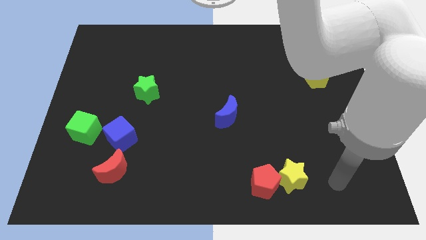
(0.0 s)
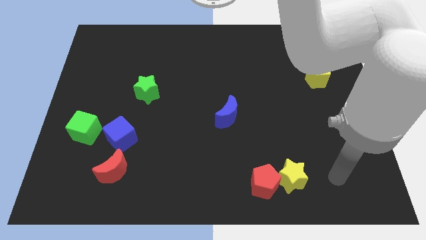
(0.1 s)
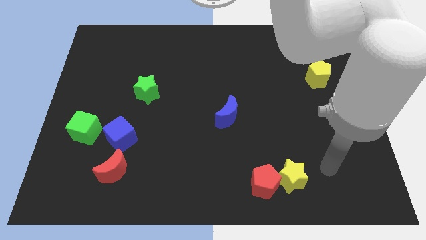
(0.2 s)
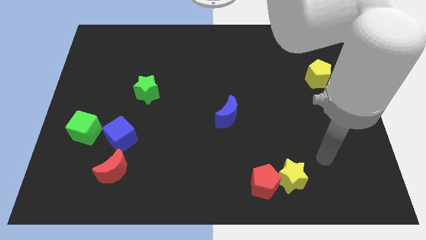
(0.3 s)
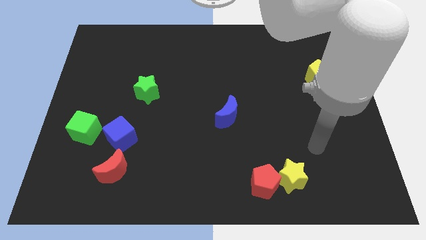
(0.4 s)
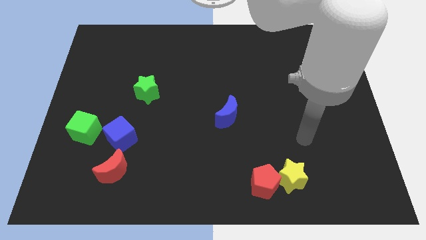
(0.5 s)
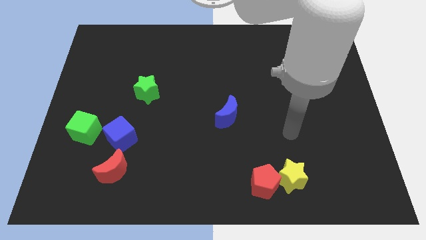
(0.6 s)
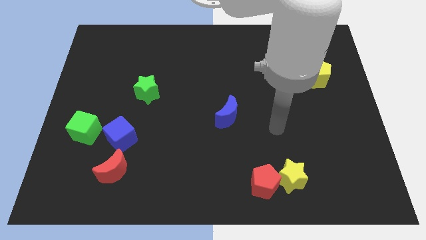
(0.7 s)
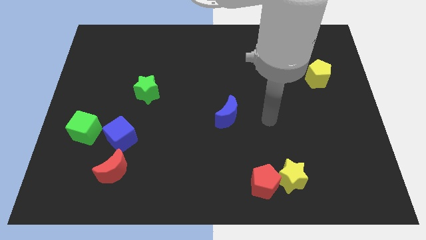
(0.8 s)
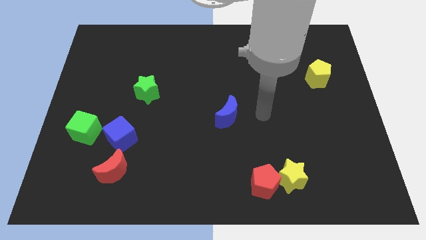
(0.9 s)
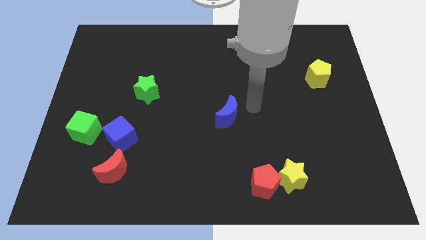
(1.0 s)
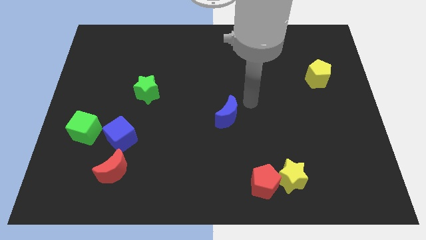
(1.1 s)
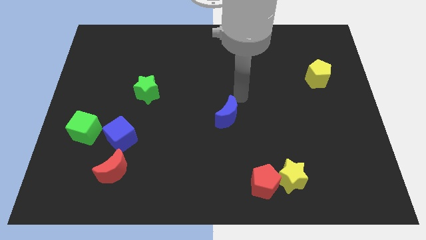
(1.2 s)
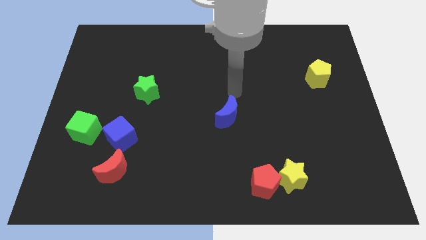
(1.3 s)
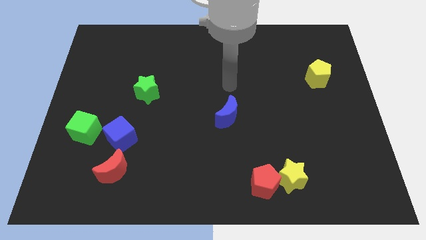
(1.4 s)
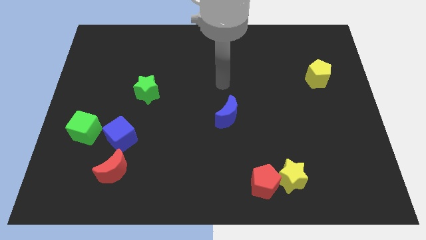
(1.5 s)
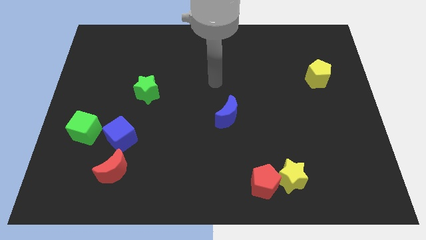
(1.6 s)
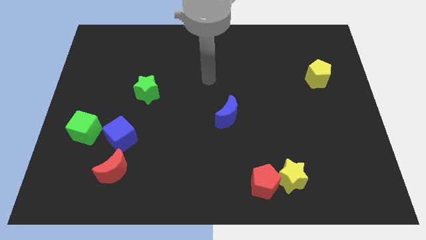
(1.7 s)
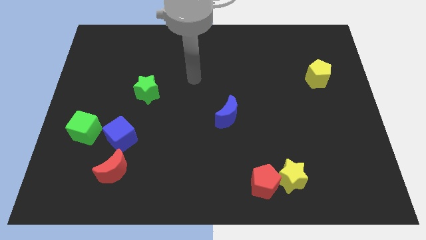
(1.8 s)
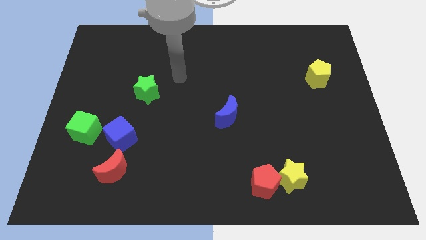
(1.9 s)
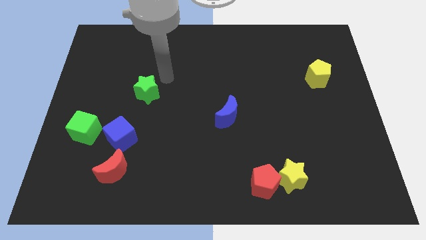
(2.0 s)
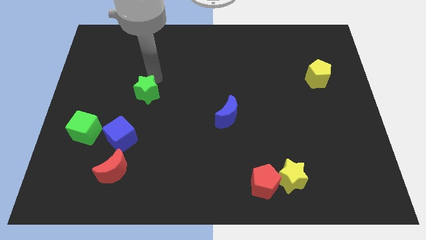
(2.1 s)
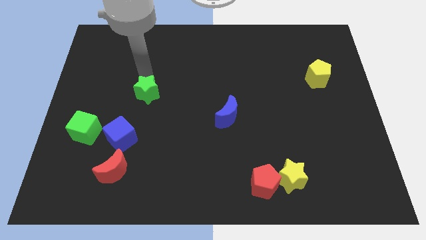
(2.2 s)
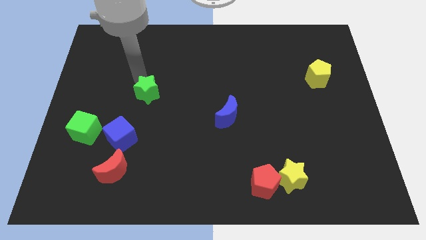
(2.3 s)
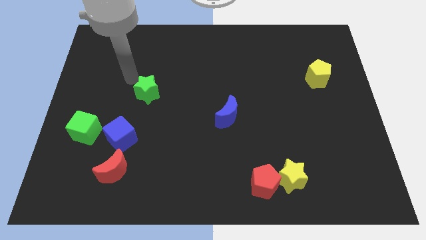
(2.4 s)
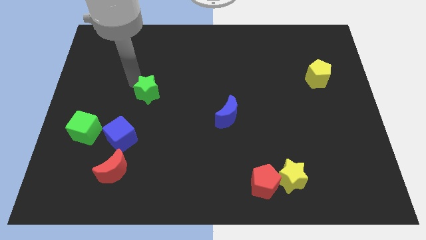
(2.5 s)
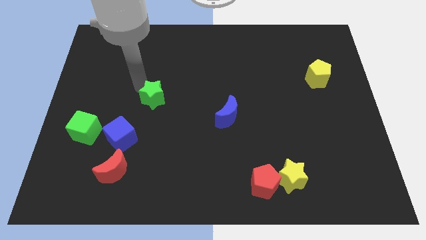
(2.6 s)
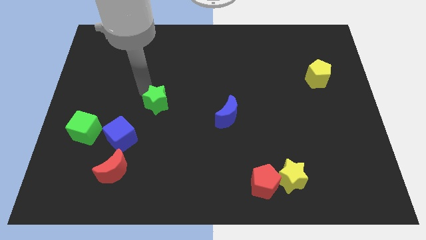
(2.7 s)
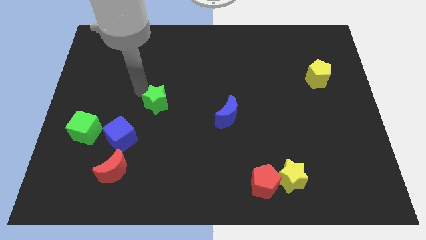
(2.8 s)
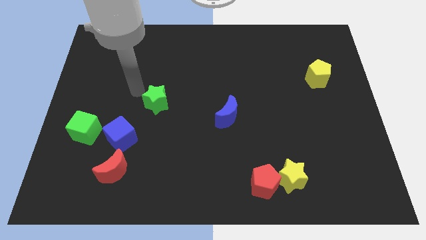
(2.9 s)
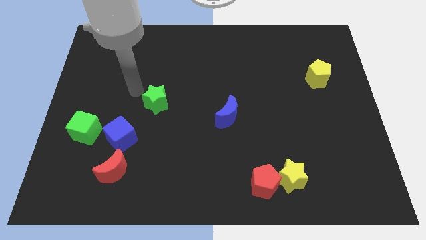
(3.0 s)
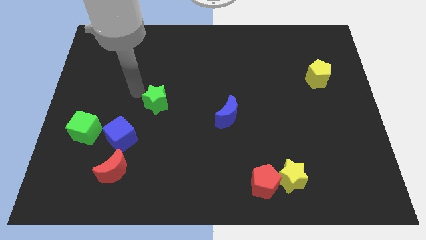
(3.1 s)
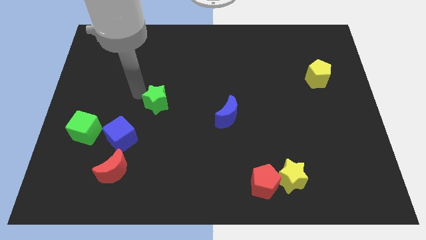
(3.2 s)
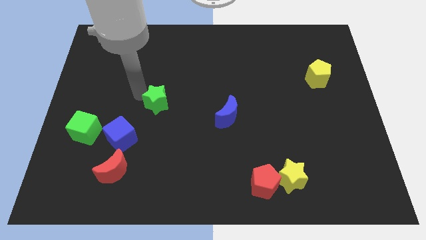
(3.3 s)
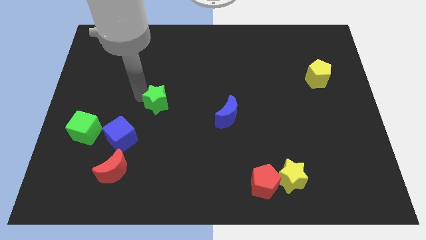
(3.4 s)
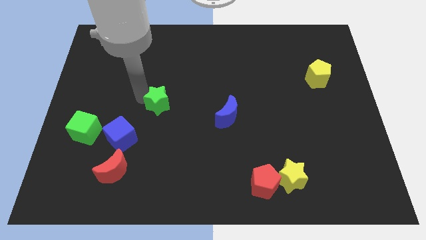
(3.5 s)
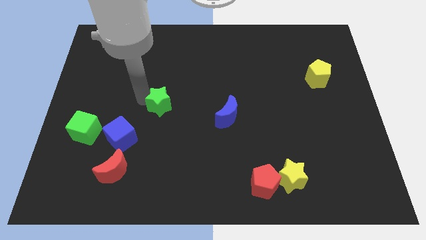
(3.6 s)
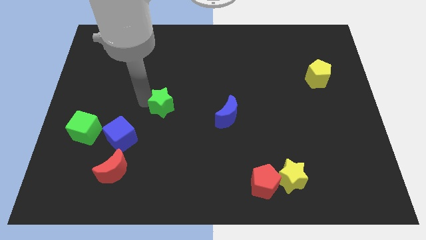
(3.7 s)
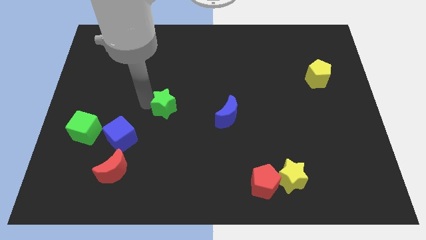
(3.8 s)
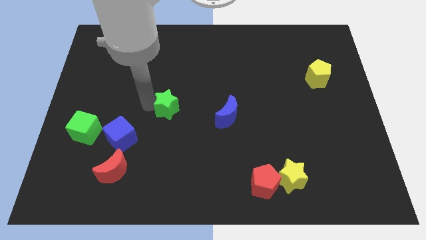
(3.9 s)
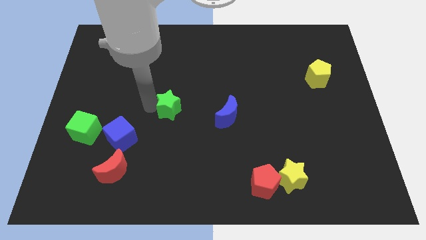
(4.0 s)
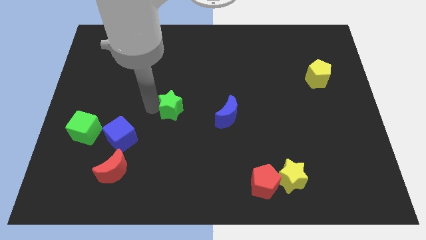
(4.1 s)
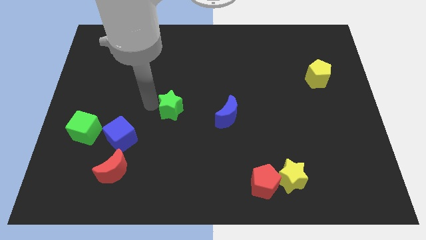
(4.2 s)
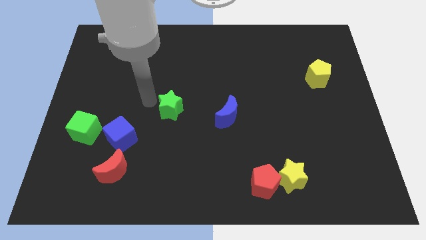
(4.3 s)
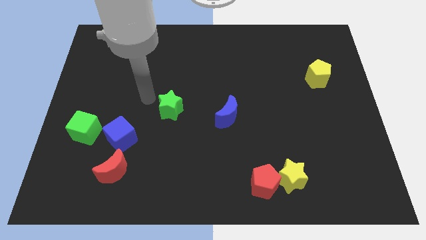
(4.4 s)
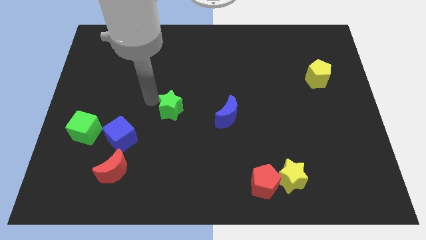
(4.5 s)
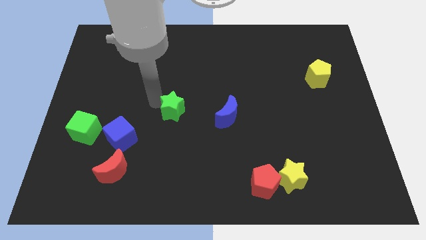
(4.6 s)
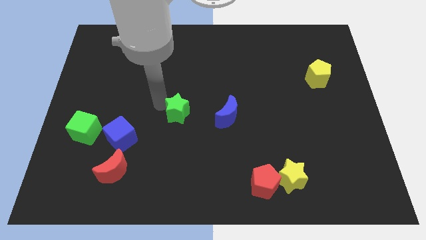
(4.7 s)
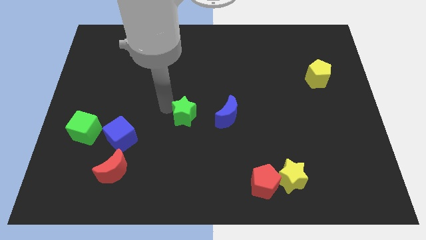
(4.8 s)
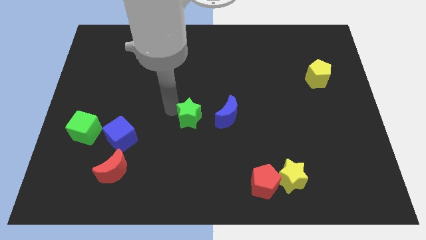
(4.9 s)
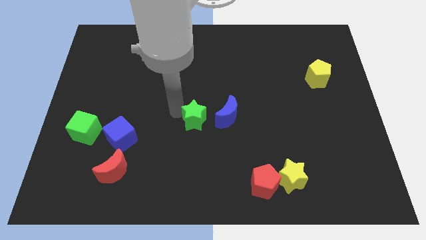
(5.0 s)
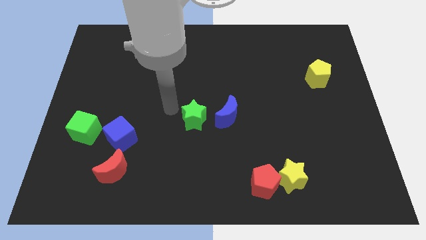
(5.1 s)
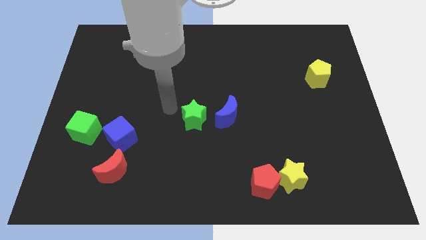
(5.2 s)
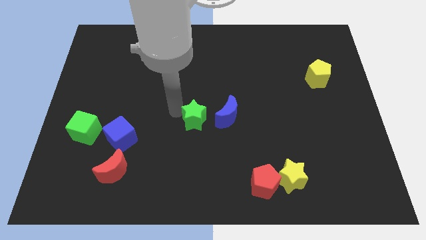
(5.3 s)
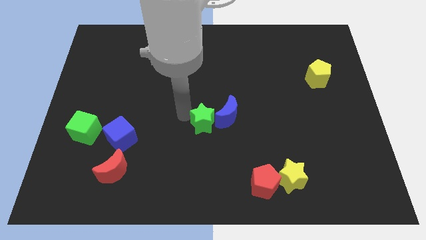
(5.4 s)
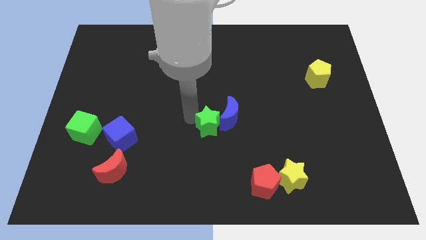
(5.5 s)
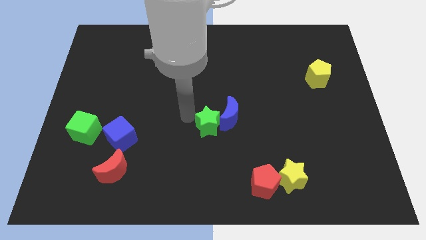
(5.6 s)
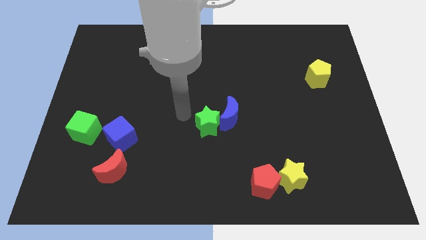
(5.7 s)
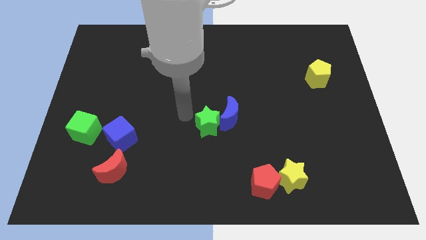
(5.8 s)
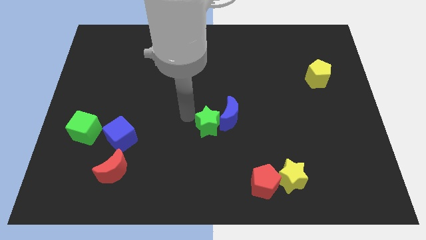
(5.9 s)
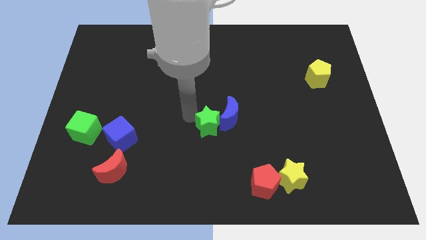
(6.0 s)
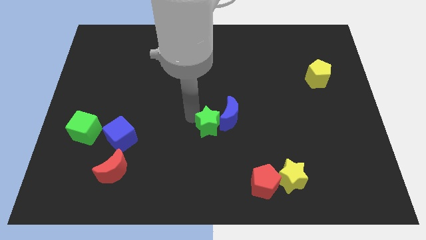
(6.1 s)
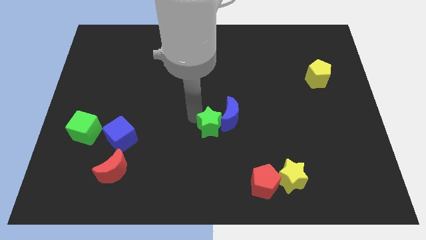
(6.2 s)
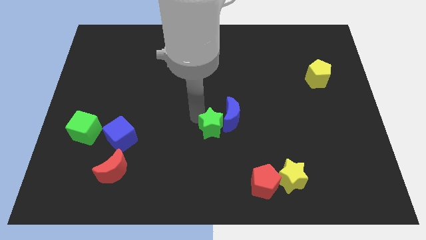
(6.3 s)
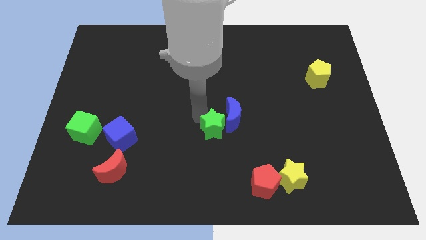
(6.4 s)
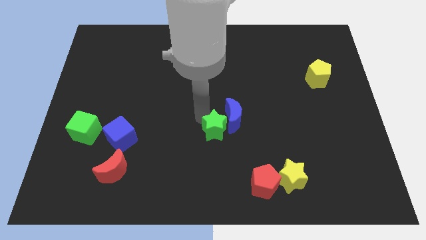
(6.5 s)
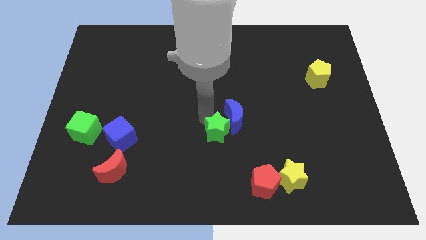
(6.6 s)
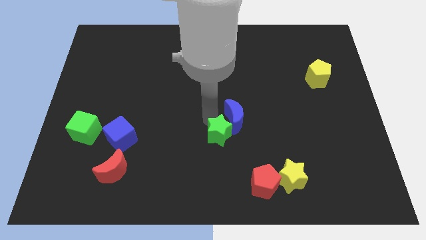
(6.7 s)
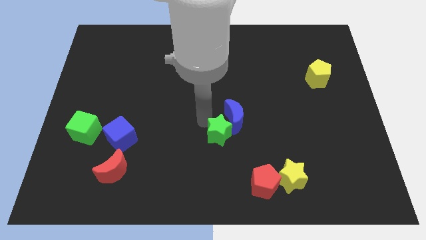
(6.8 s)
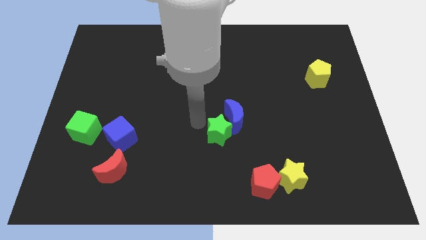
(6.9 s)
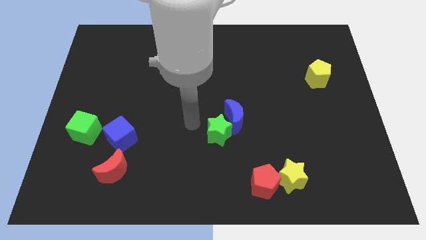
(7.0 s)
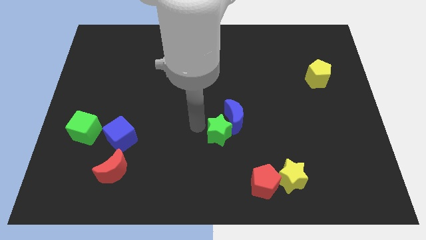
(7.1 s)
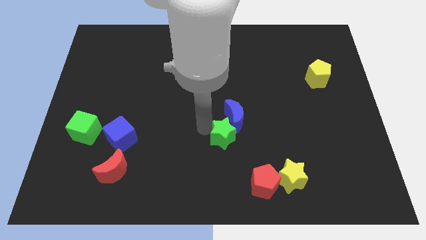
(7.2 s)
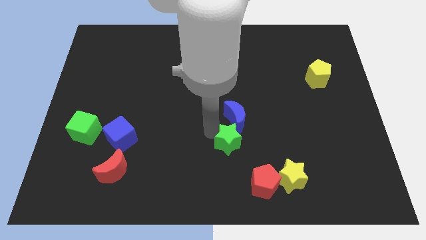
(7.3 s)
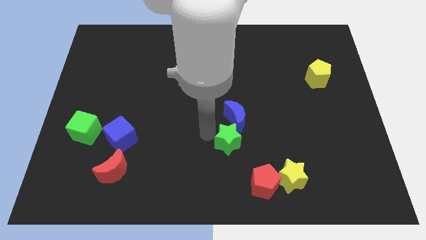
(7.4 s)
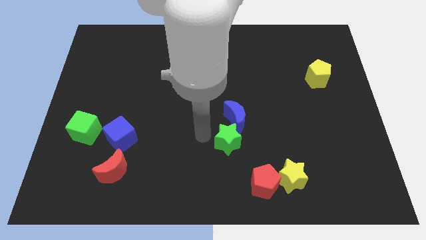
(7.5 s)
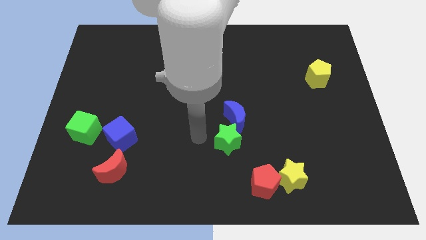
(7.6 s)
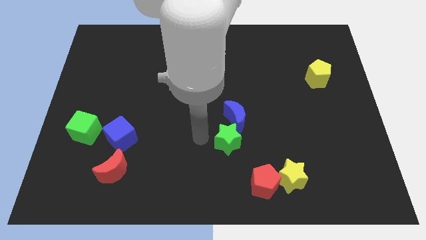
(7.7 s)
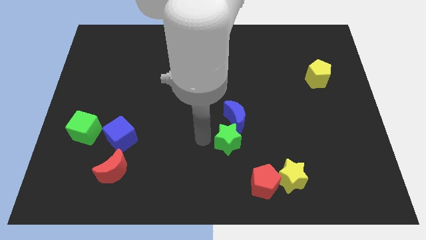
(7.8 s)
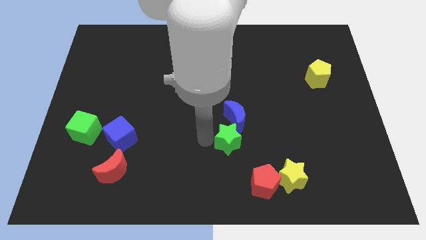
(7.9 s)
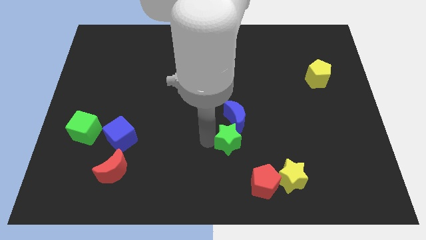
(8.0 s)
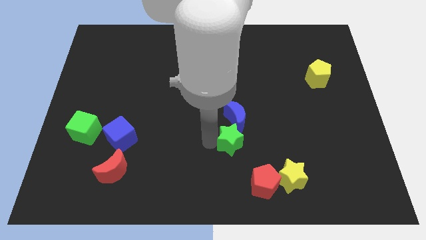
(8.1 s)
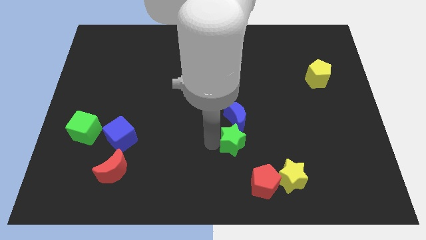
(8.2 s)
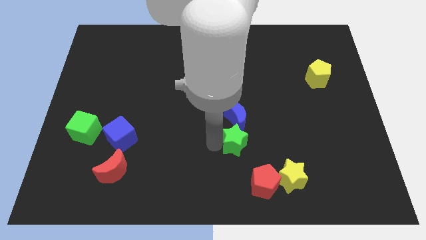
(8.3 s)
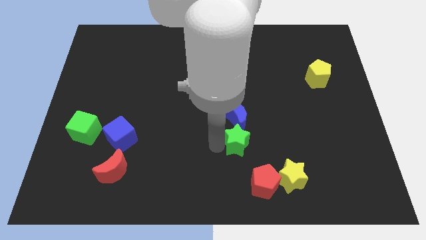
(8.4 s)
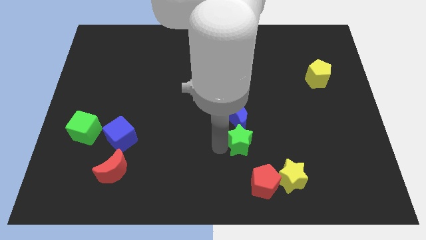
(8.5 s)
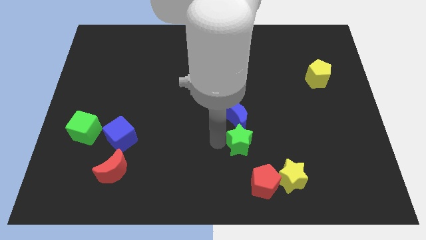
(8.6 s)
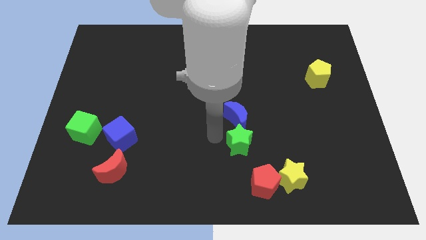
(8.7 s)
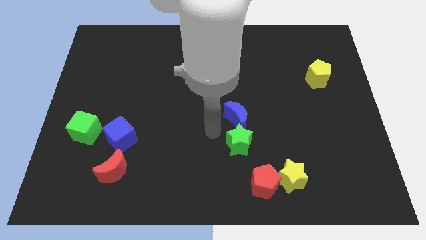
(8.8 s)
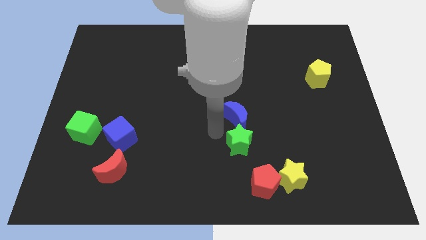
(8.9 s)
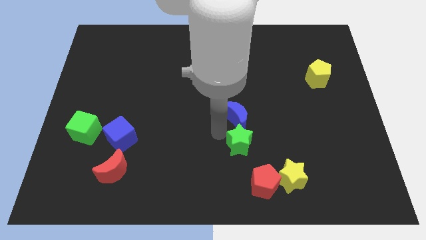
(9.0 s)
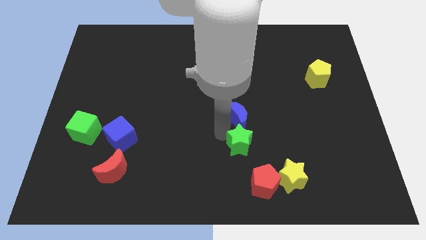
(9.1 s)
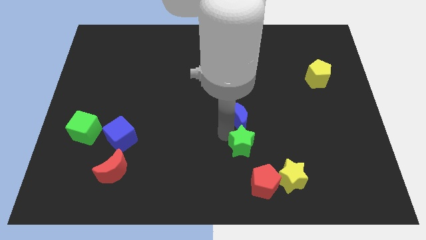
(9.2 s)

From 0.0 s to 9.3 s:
slide the green star diagonally up and to the left of the yellow star
